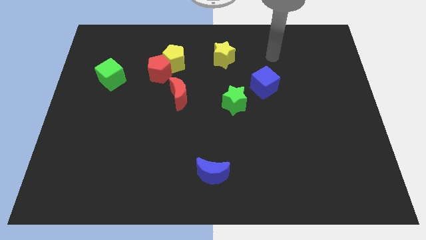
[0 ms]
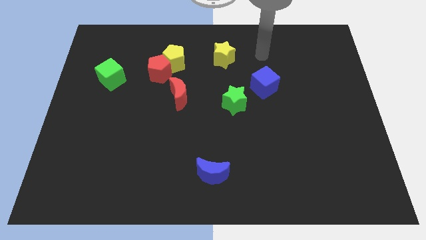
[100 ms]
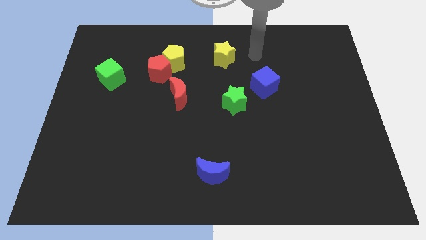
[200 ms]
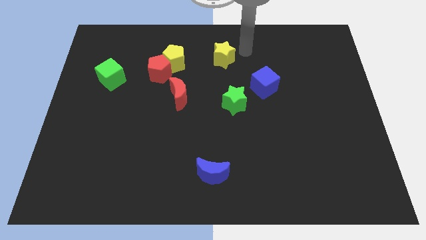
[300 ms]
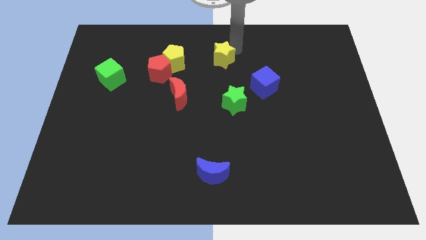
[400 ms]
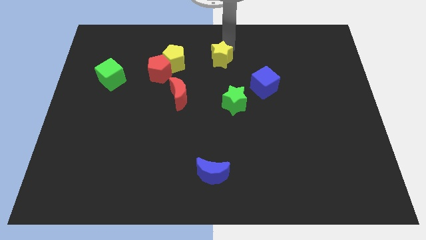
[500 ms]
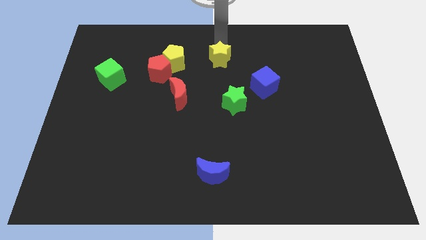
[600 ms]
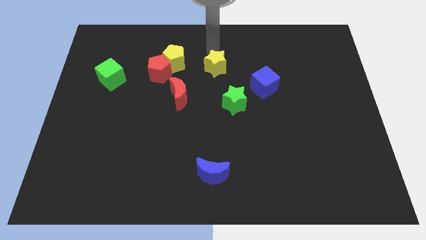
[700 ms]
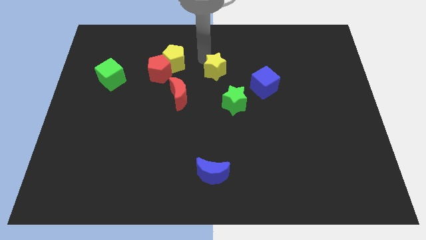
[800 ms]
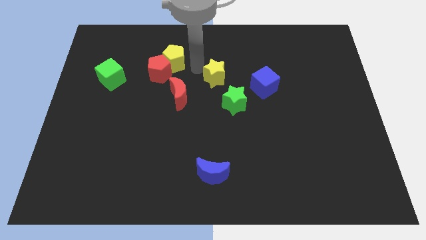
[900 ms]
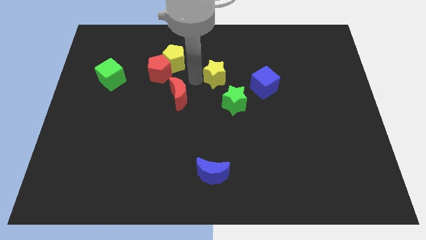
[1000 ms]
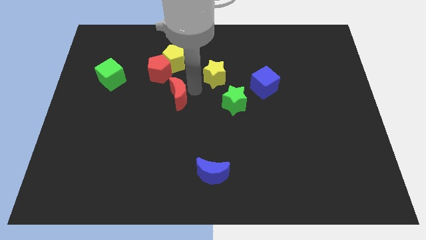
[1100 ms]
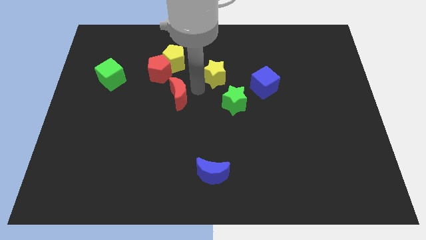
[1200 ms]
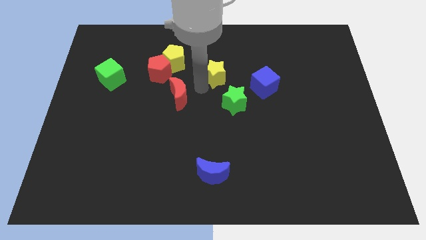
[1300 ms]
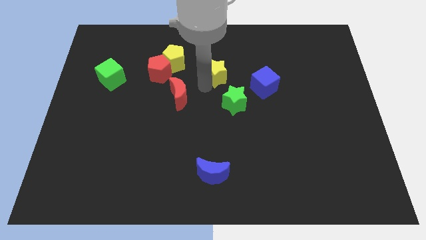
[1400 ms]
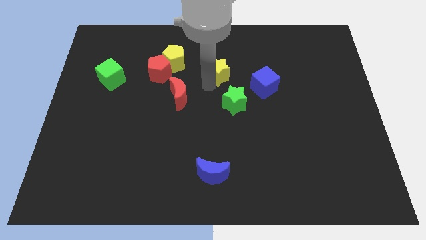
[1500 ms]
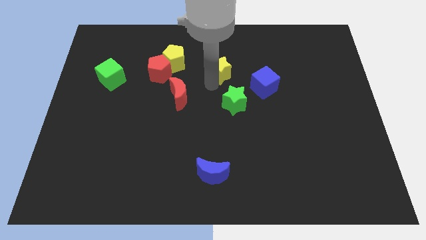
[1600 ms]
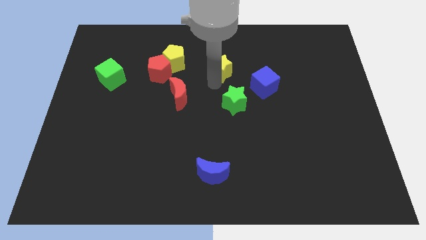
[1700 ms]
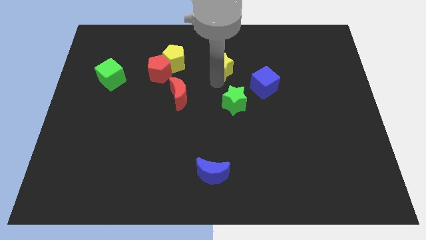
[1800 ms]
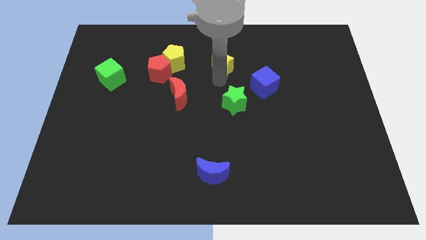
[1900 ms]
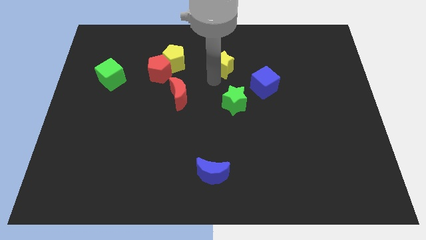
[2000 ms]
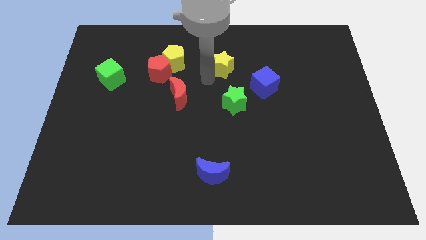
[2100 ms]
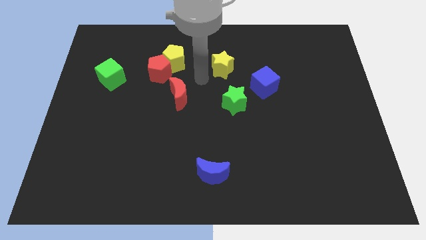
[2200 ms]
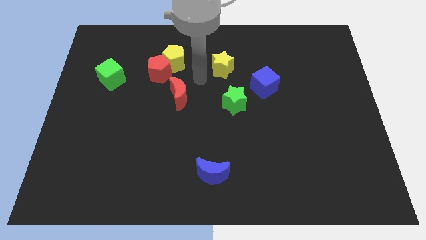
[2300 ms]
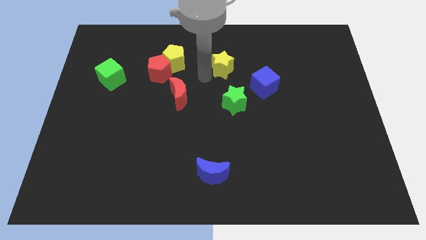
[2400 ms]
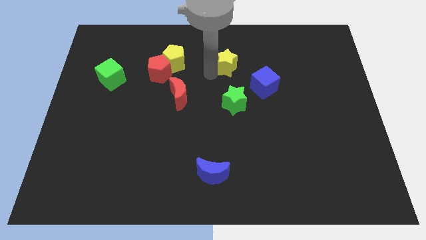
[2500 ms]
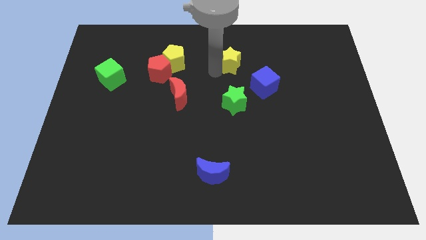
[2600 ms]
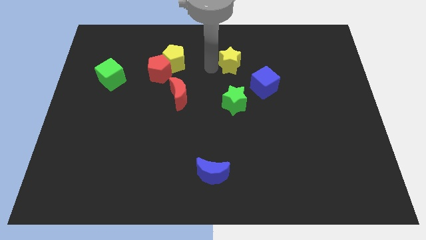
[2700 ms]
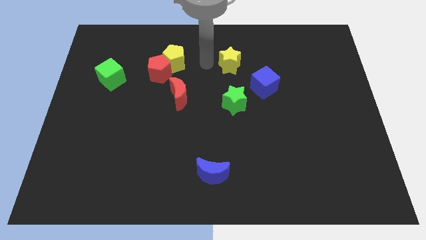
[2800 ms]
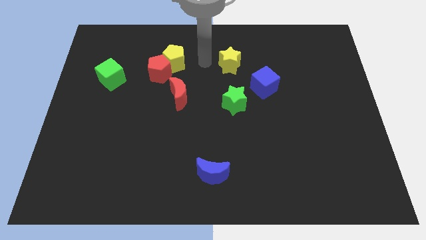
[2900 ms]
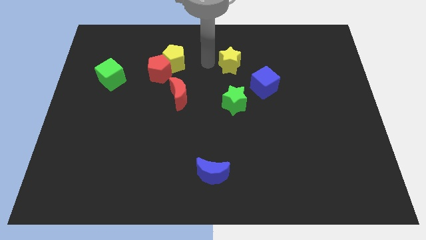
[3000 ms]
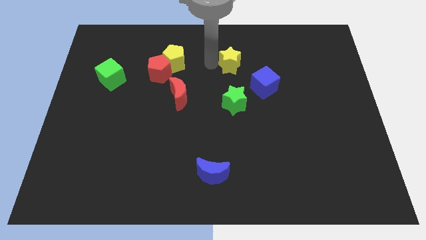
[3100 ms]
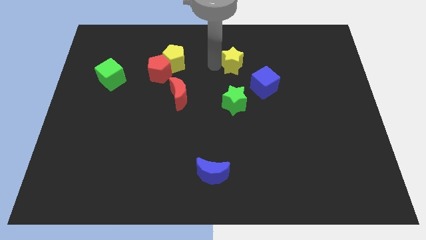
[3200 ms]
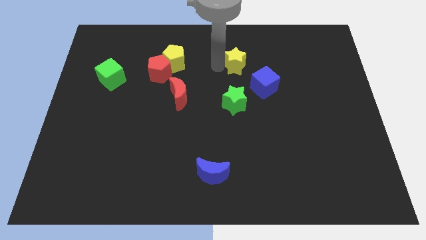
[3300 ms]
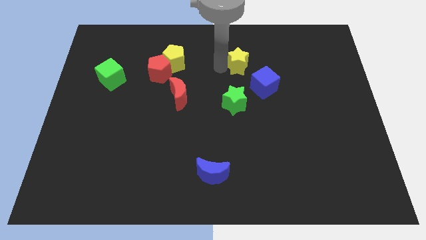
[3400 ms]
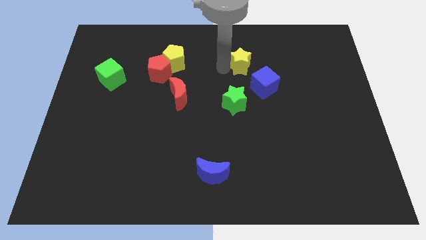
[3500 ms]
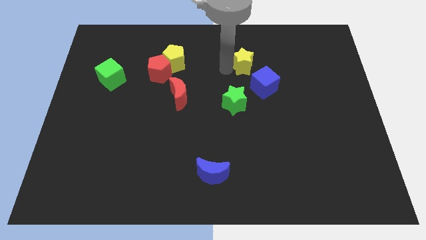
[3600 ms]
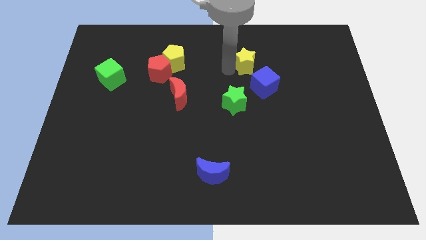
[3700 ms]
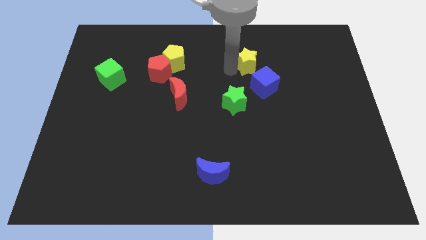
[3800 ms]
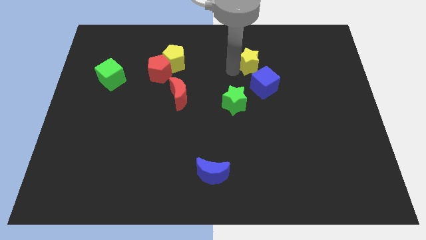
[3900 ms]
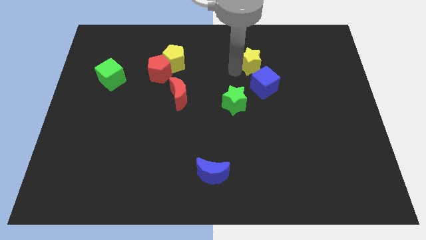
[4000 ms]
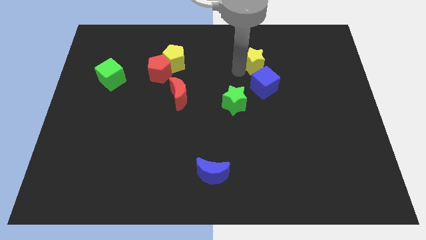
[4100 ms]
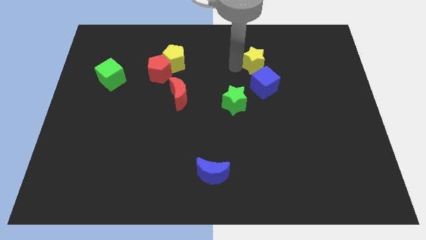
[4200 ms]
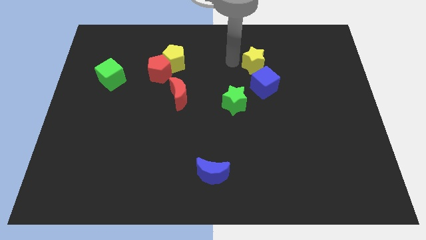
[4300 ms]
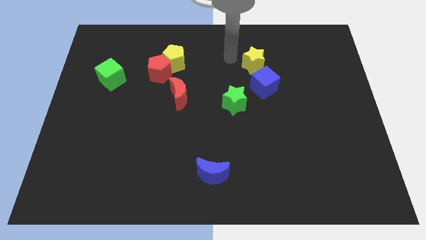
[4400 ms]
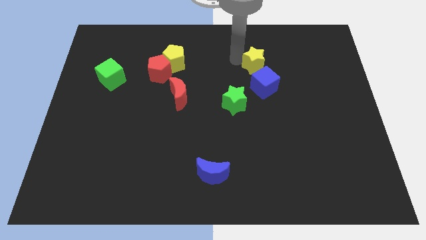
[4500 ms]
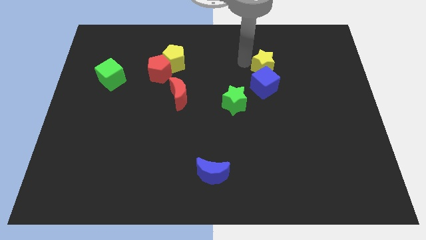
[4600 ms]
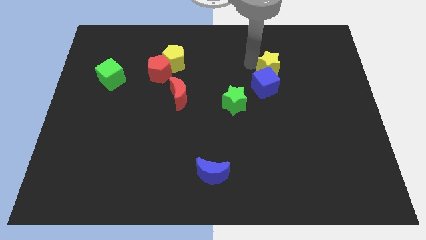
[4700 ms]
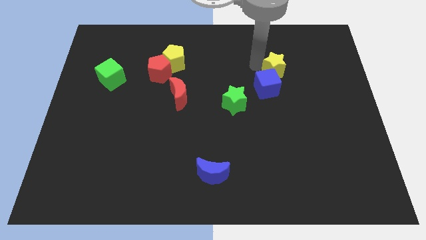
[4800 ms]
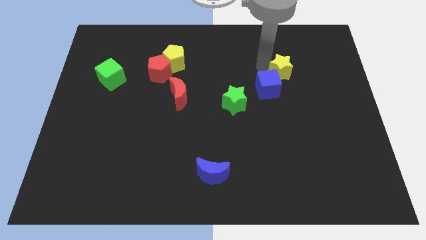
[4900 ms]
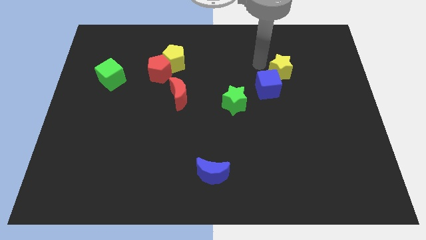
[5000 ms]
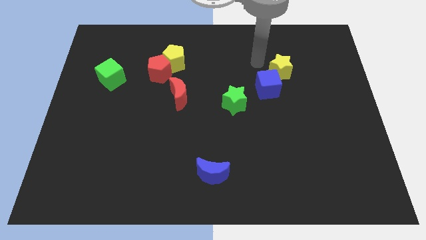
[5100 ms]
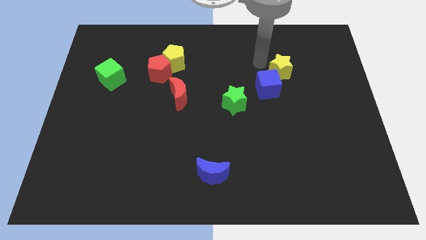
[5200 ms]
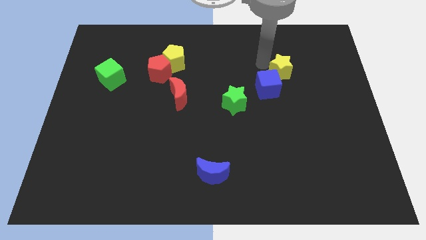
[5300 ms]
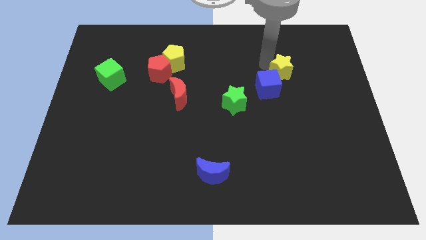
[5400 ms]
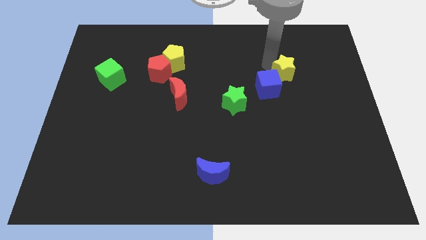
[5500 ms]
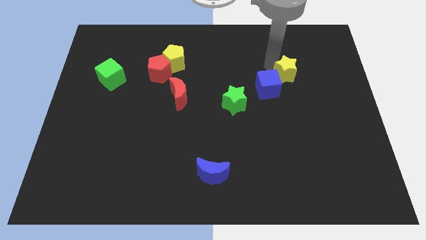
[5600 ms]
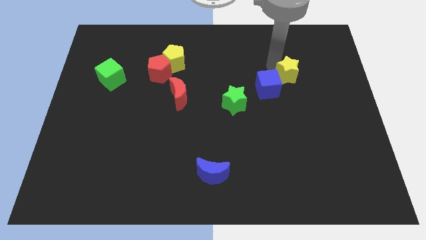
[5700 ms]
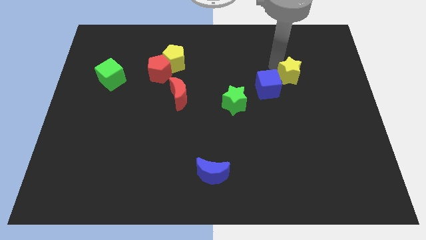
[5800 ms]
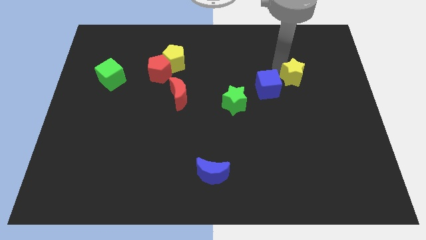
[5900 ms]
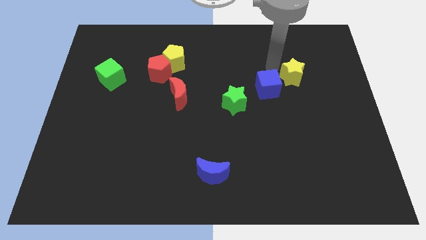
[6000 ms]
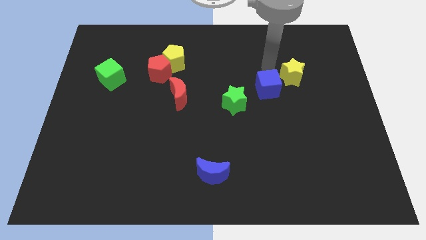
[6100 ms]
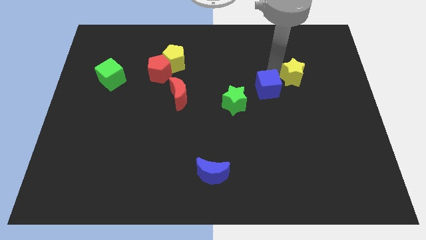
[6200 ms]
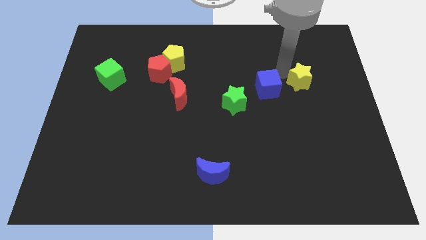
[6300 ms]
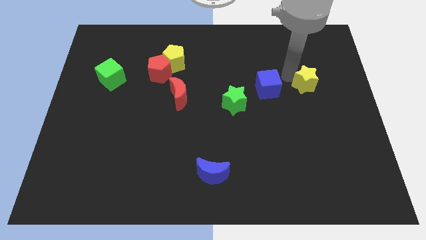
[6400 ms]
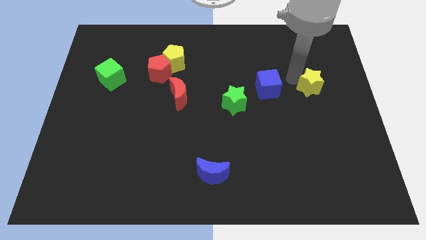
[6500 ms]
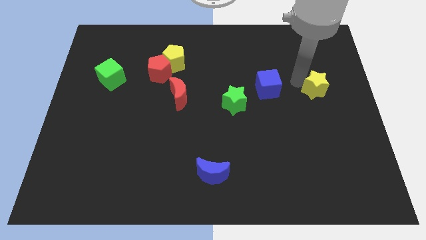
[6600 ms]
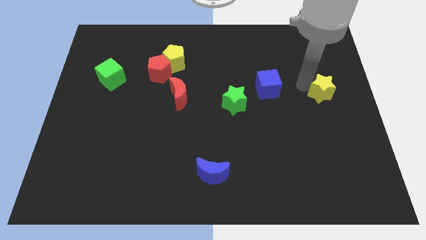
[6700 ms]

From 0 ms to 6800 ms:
push the yellow star to the right side
